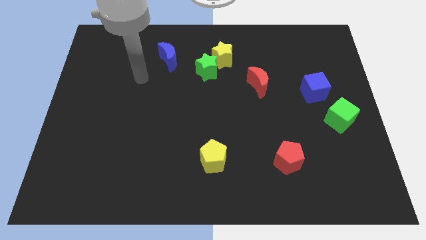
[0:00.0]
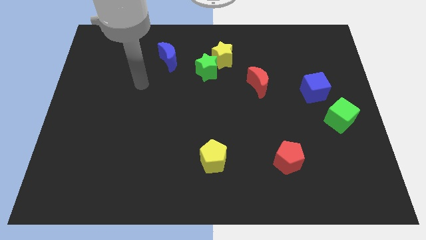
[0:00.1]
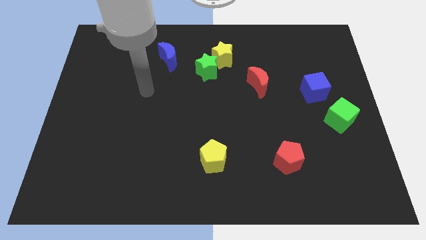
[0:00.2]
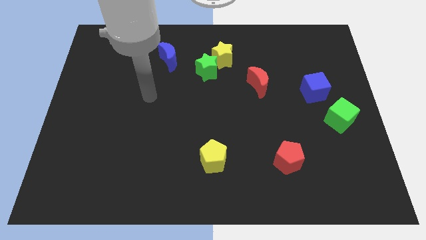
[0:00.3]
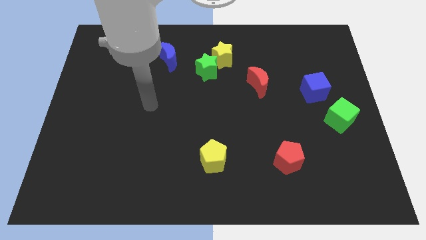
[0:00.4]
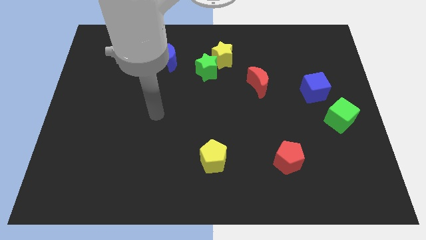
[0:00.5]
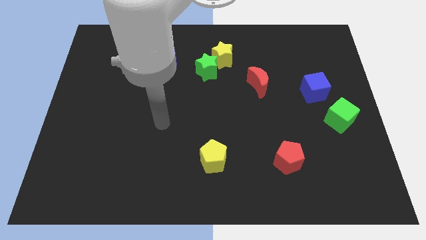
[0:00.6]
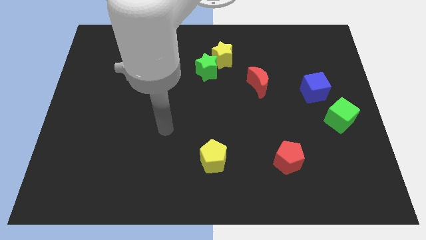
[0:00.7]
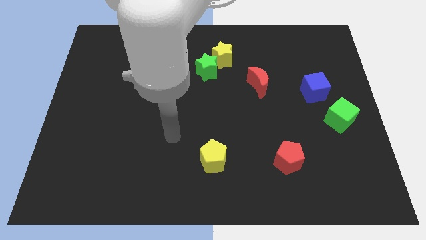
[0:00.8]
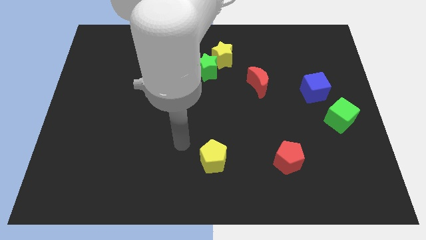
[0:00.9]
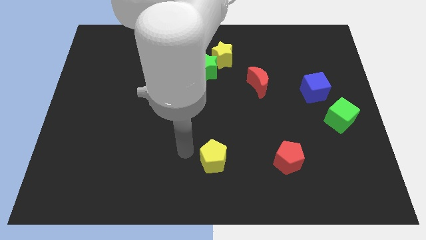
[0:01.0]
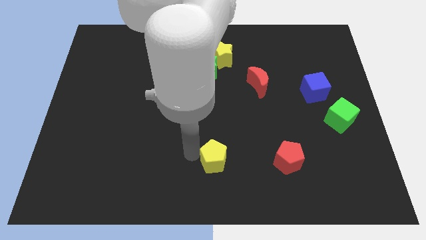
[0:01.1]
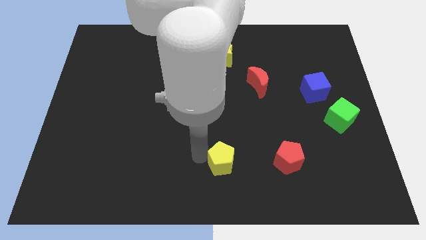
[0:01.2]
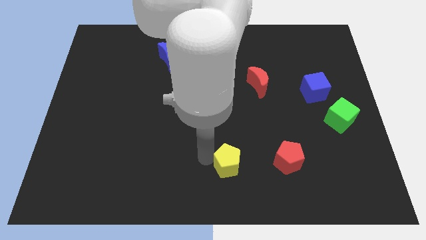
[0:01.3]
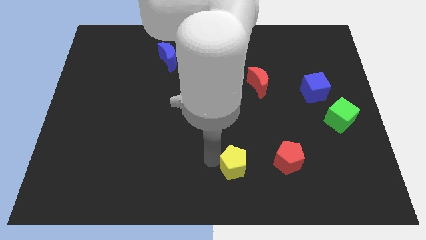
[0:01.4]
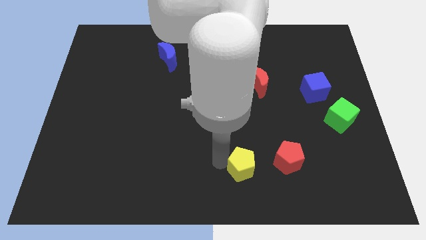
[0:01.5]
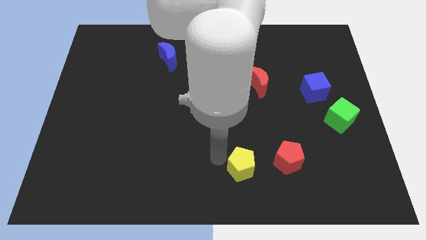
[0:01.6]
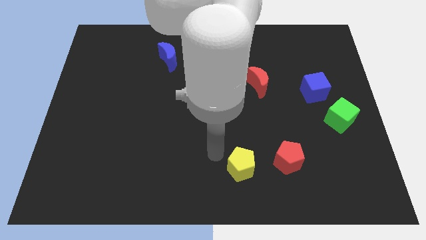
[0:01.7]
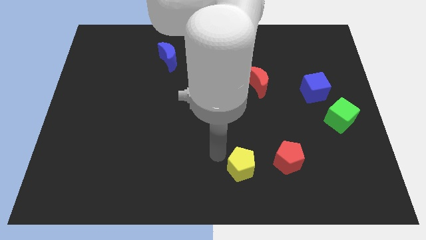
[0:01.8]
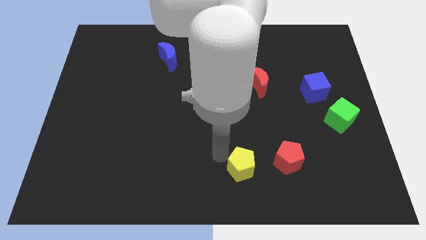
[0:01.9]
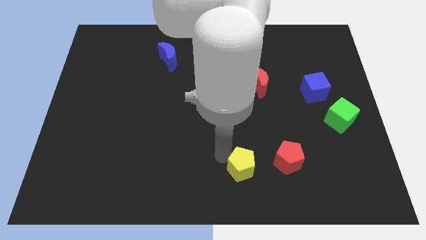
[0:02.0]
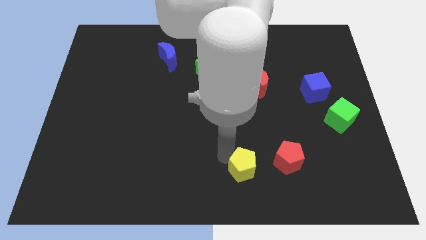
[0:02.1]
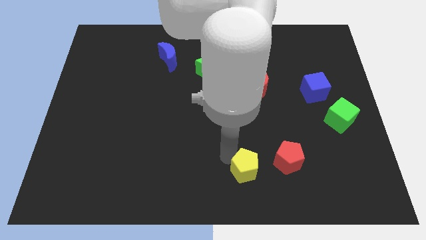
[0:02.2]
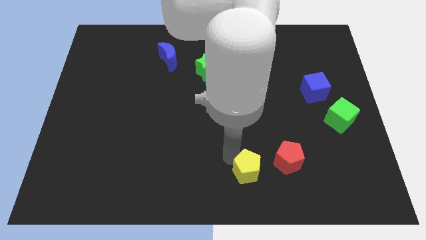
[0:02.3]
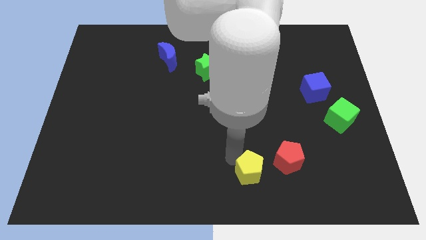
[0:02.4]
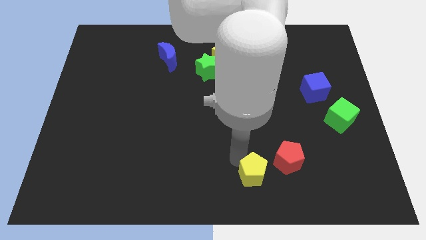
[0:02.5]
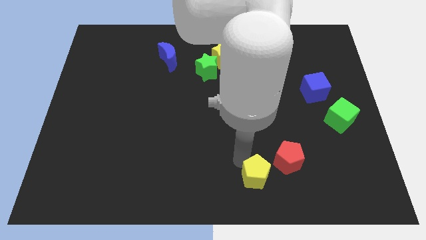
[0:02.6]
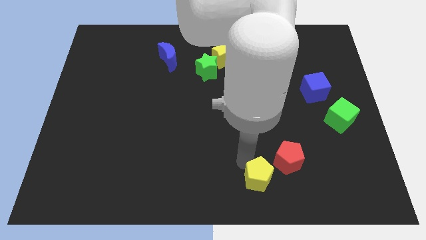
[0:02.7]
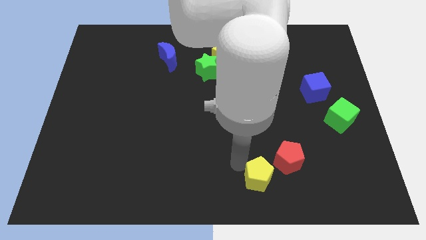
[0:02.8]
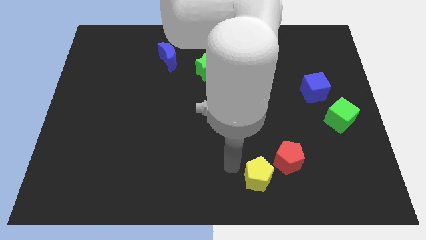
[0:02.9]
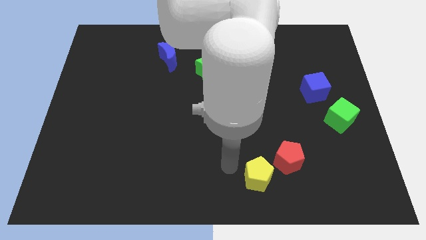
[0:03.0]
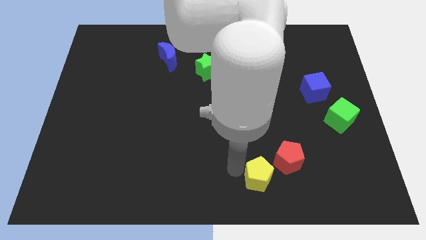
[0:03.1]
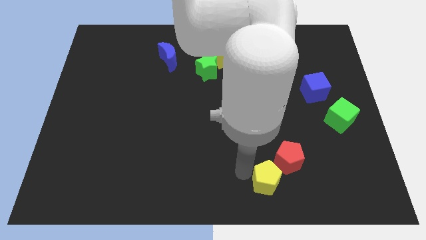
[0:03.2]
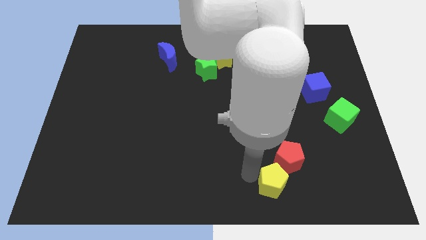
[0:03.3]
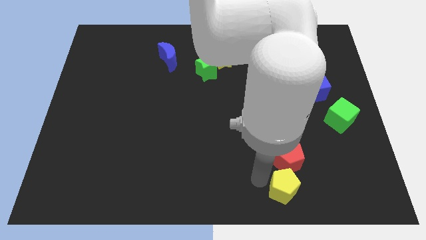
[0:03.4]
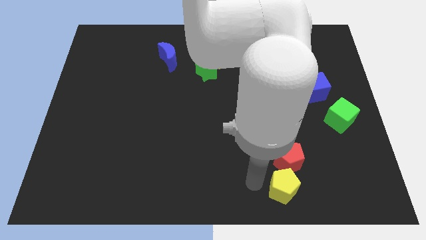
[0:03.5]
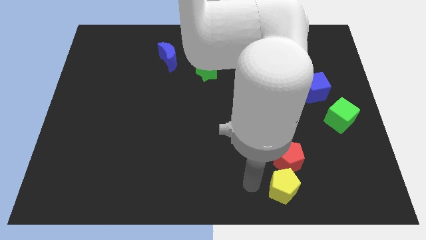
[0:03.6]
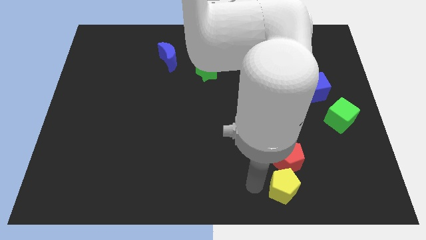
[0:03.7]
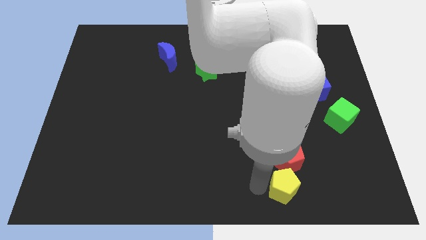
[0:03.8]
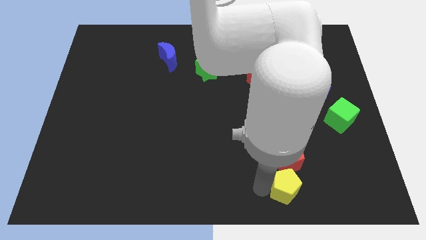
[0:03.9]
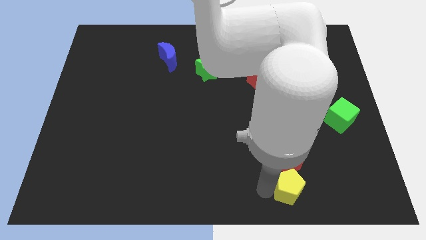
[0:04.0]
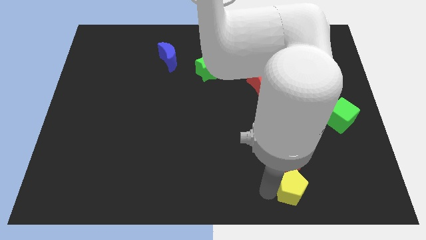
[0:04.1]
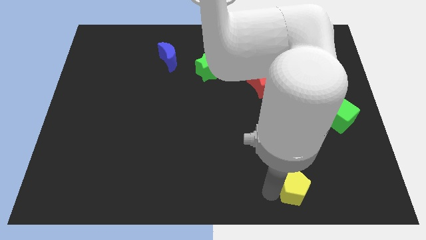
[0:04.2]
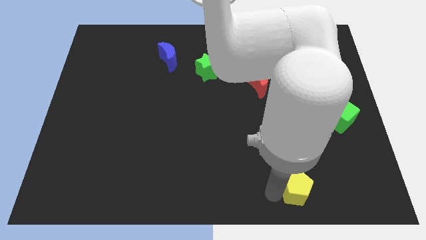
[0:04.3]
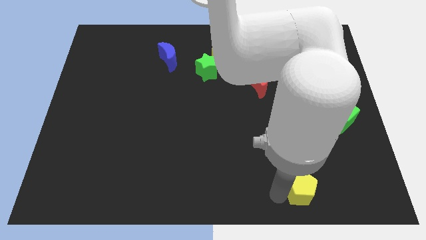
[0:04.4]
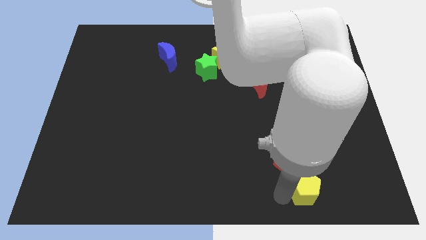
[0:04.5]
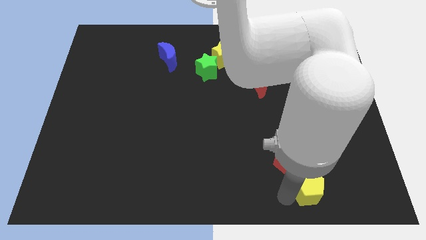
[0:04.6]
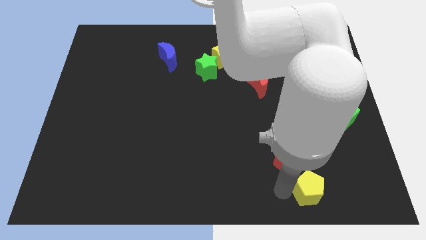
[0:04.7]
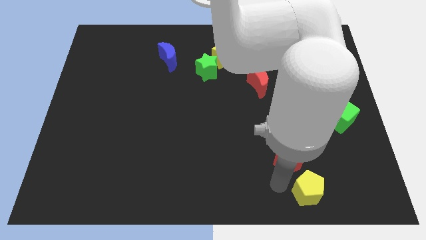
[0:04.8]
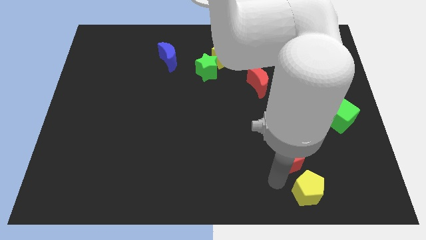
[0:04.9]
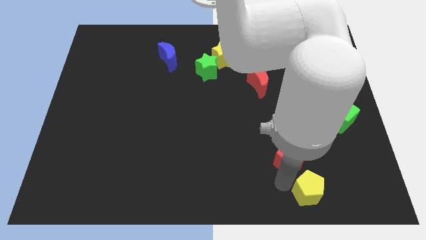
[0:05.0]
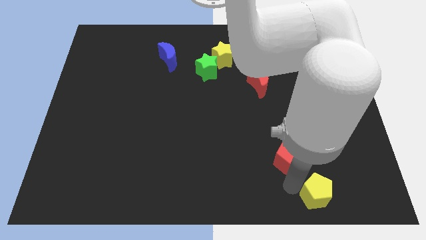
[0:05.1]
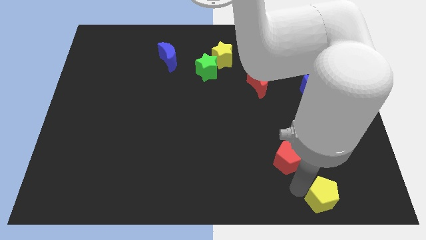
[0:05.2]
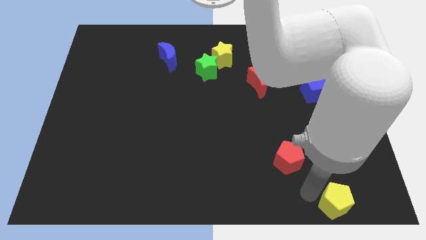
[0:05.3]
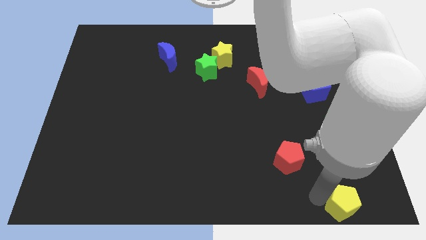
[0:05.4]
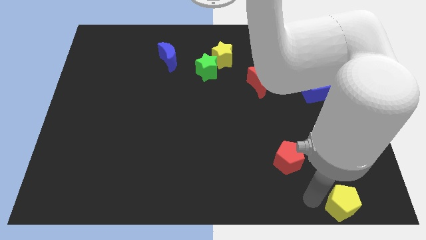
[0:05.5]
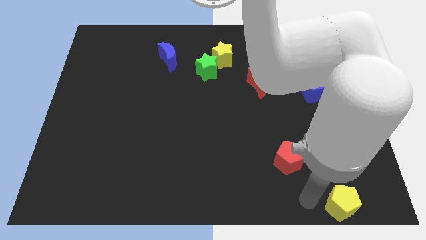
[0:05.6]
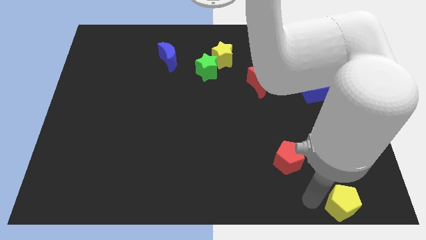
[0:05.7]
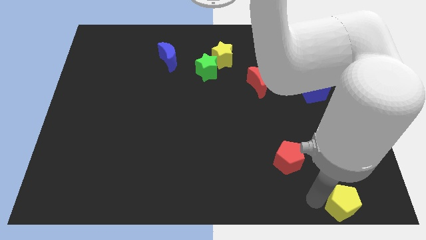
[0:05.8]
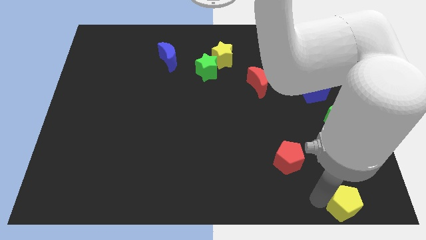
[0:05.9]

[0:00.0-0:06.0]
move the yellow pentagon to the bottom right of the board
